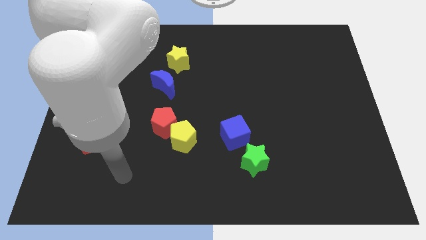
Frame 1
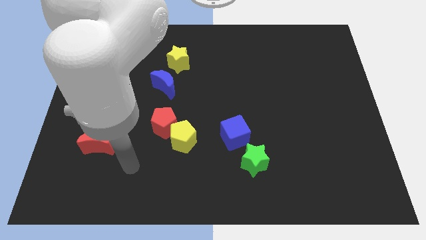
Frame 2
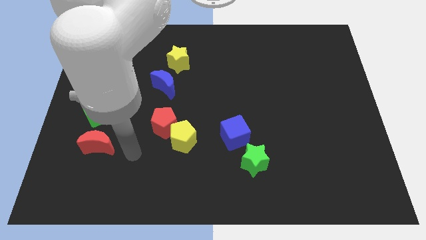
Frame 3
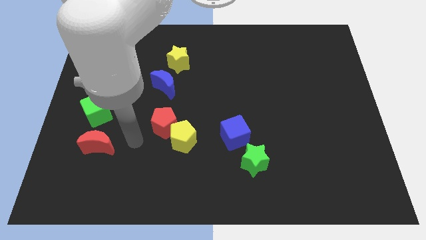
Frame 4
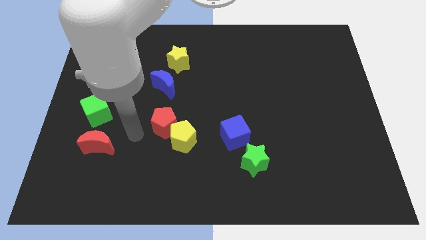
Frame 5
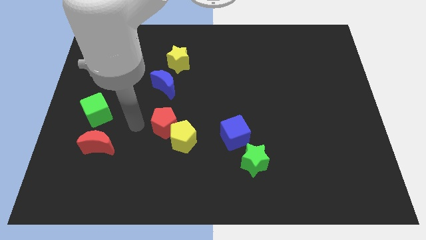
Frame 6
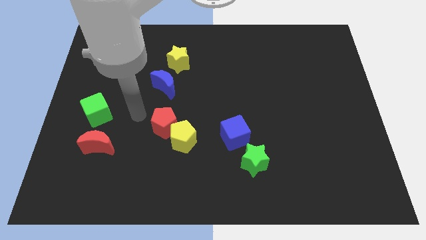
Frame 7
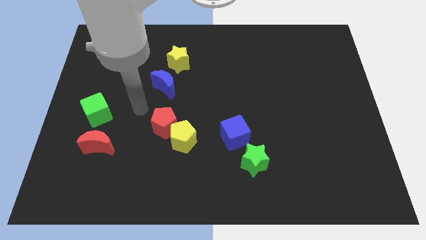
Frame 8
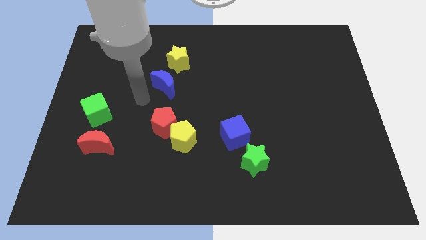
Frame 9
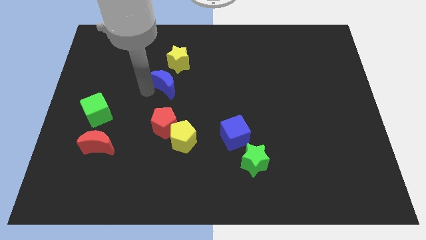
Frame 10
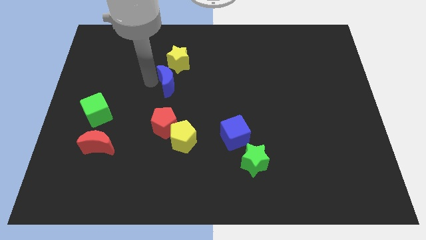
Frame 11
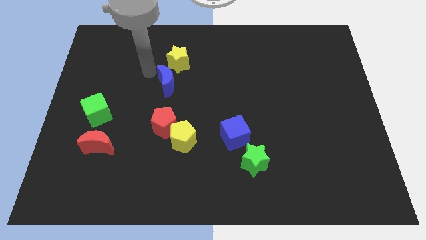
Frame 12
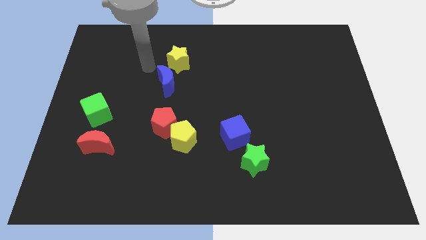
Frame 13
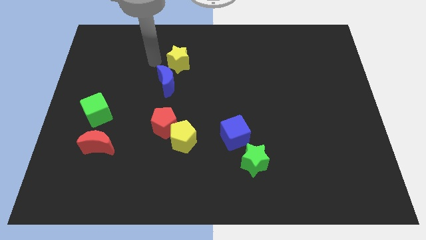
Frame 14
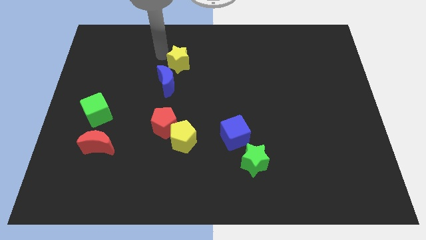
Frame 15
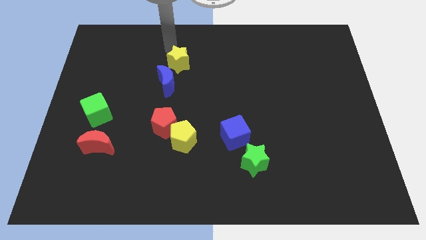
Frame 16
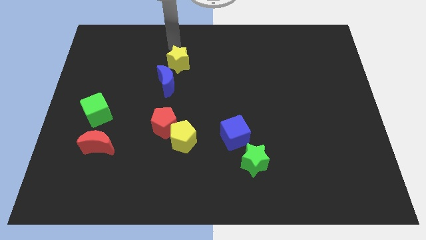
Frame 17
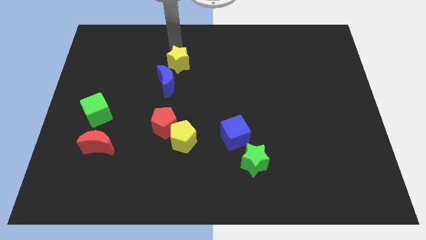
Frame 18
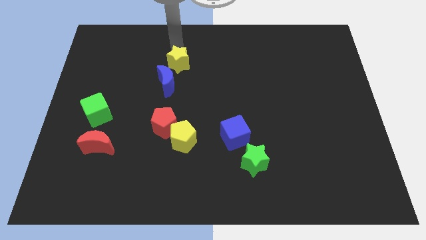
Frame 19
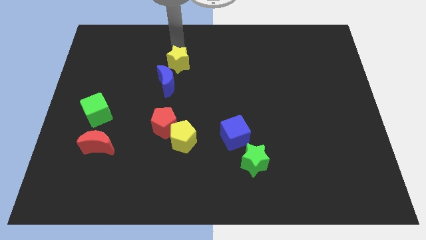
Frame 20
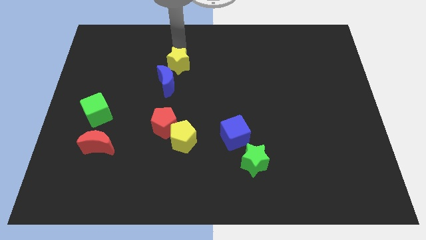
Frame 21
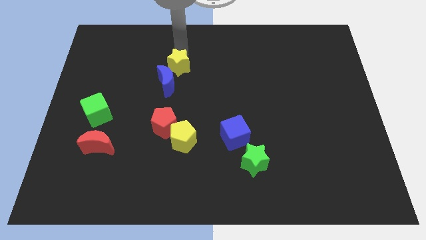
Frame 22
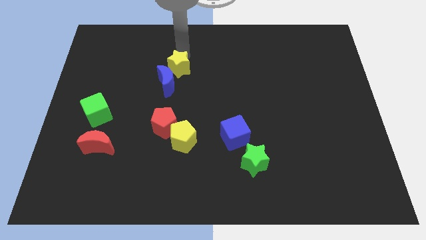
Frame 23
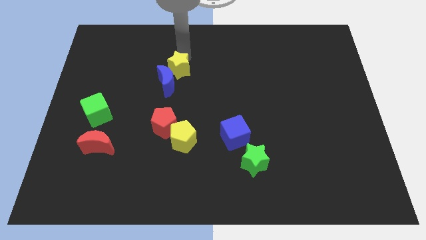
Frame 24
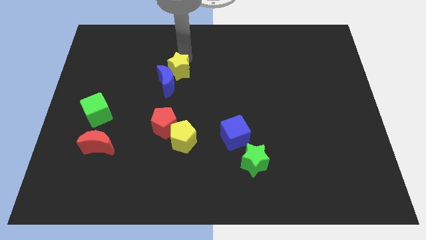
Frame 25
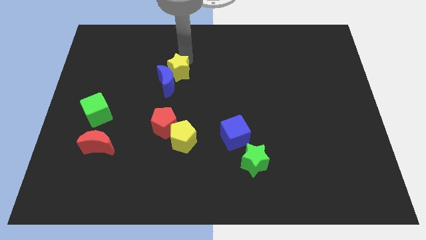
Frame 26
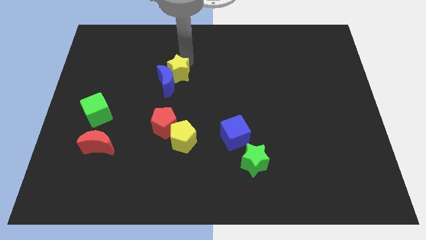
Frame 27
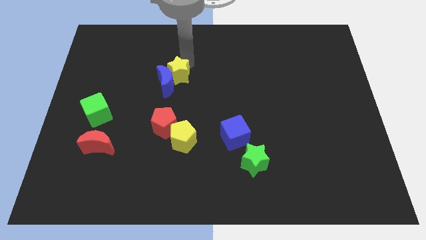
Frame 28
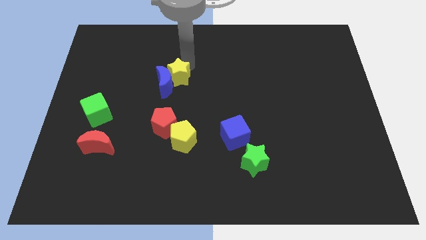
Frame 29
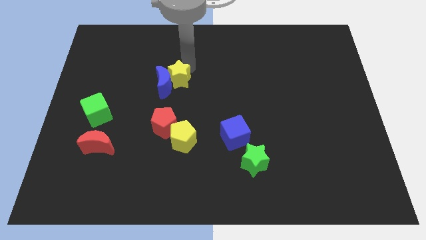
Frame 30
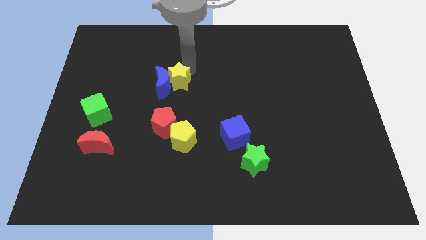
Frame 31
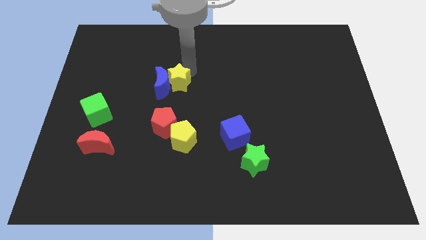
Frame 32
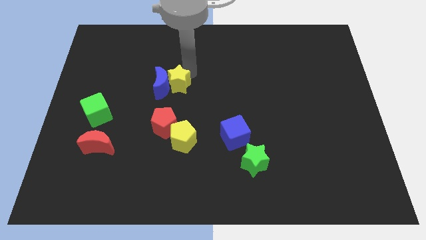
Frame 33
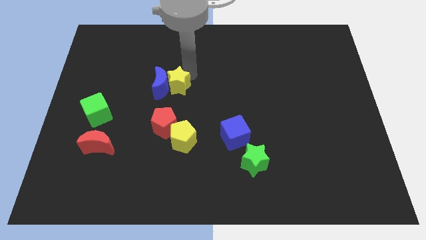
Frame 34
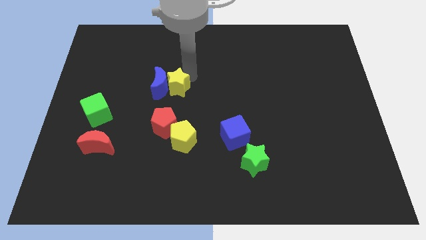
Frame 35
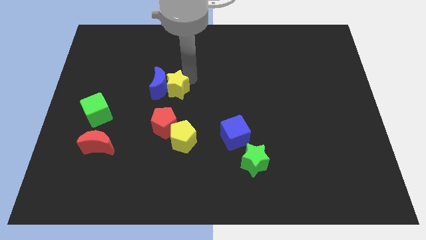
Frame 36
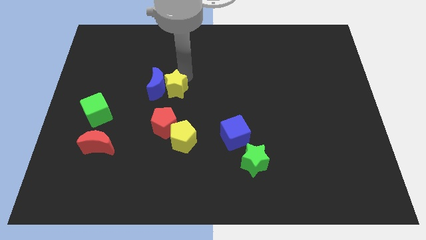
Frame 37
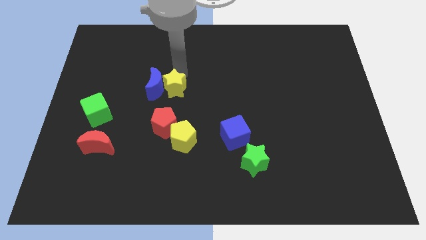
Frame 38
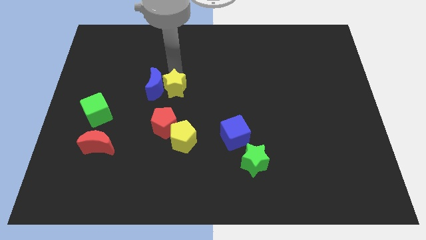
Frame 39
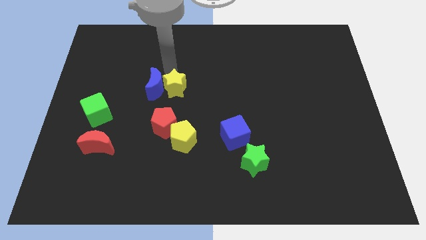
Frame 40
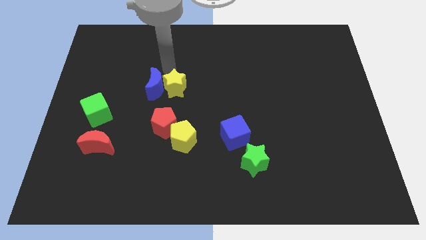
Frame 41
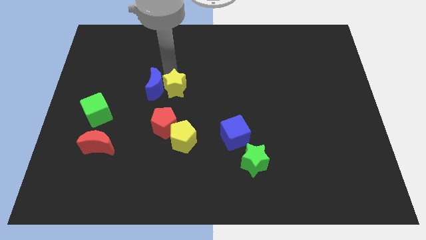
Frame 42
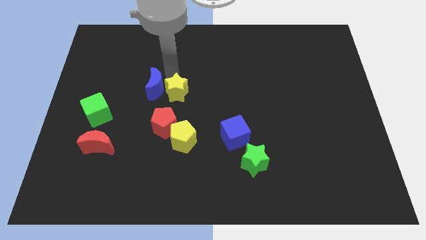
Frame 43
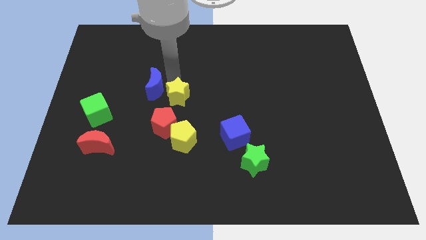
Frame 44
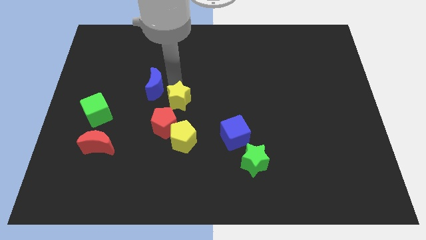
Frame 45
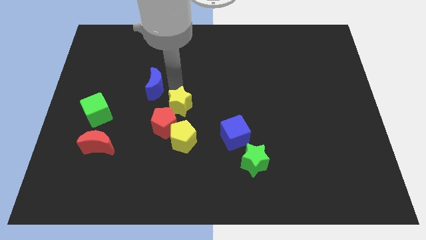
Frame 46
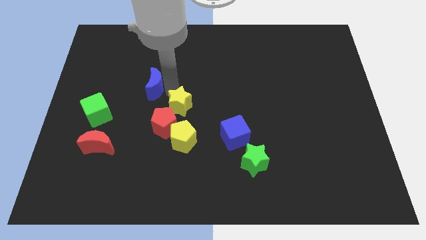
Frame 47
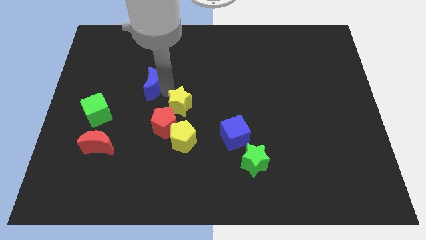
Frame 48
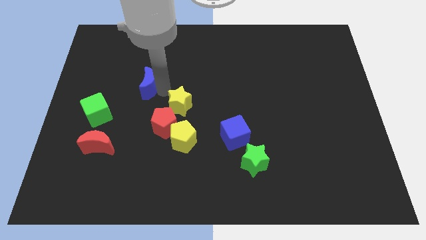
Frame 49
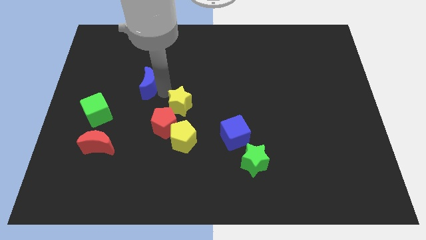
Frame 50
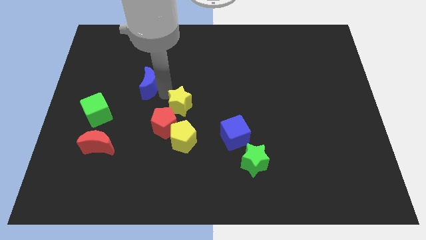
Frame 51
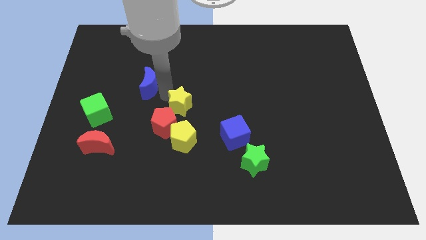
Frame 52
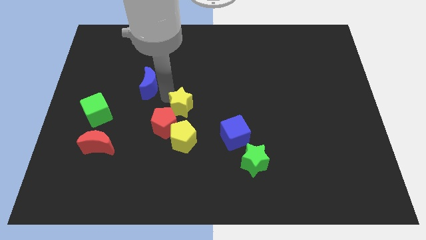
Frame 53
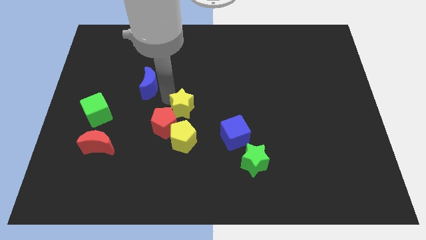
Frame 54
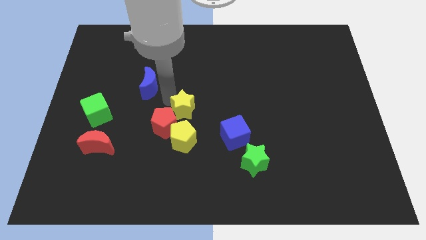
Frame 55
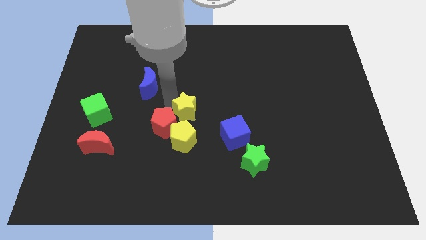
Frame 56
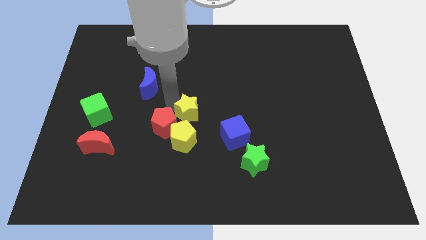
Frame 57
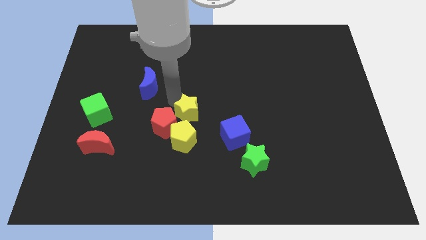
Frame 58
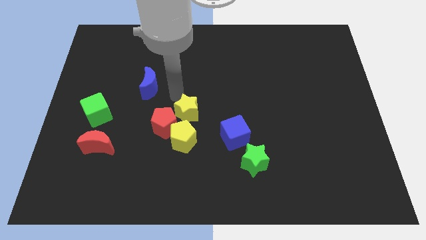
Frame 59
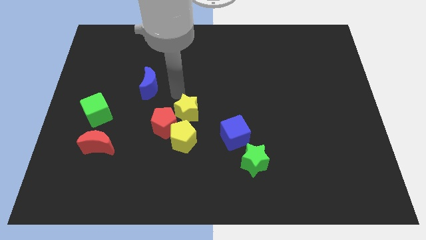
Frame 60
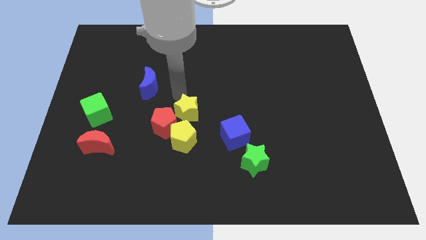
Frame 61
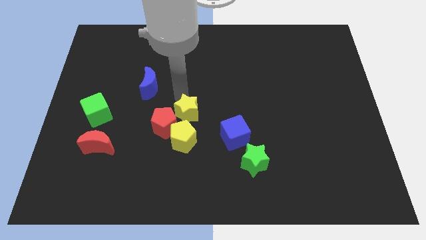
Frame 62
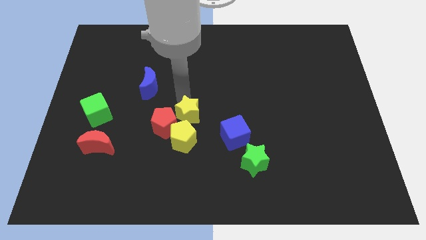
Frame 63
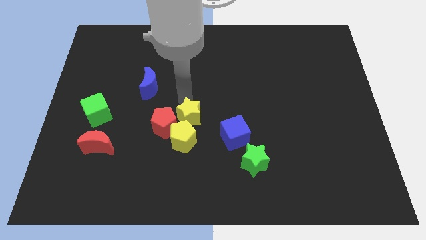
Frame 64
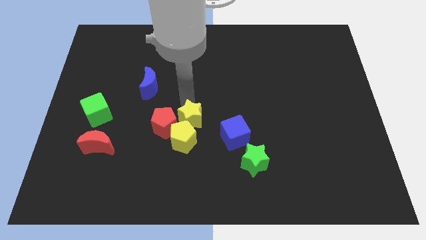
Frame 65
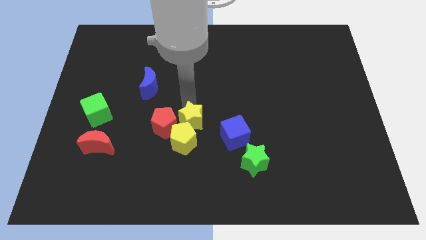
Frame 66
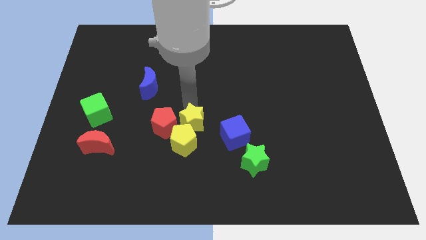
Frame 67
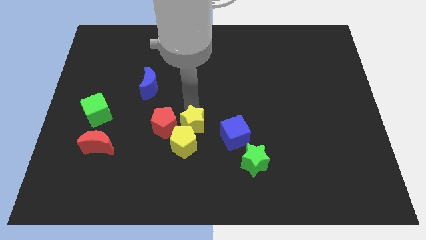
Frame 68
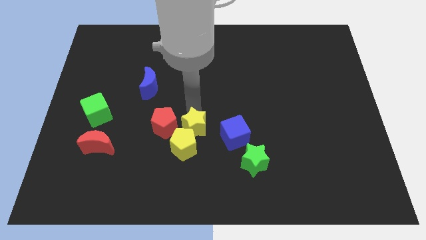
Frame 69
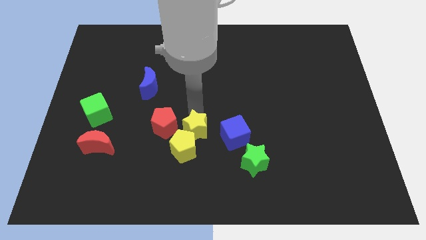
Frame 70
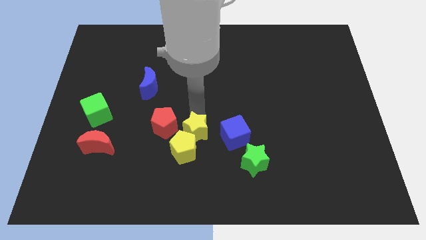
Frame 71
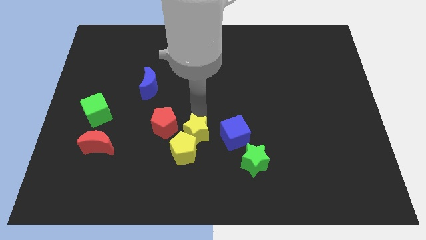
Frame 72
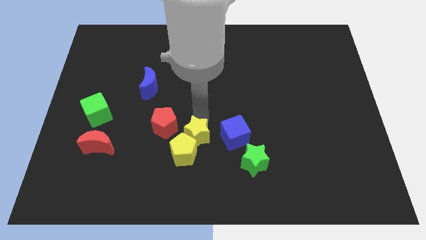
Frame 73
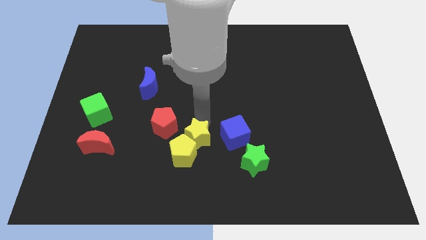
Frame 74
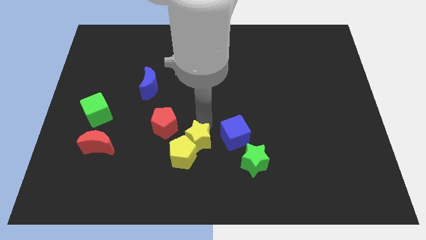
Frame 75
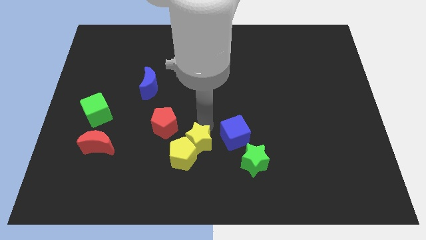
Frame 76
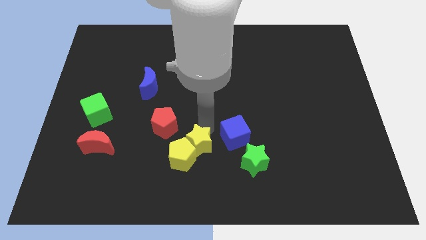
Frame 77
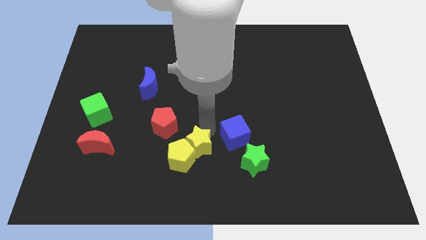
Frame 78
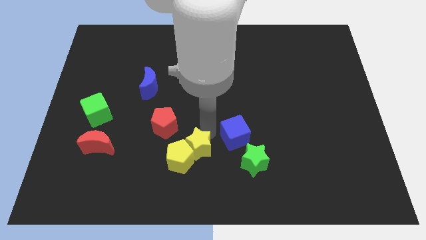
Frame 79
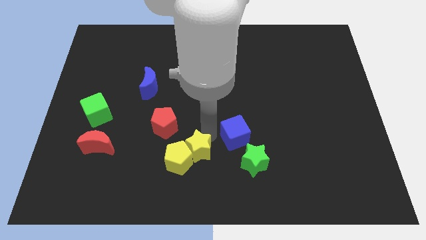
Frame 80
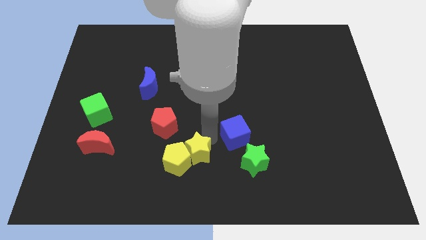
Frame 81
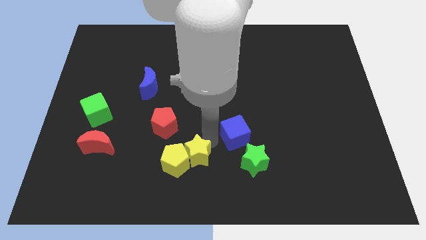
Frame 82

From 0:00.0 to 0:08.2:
slide the yellow star to the bottom

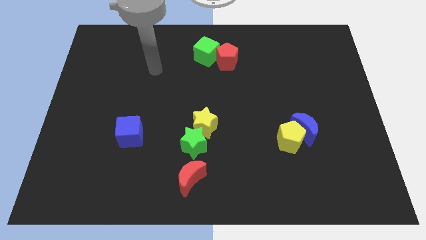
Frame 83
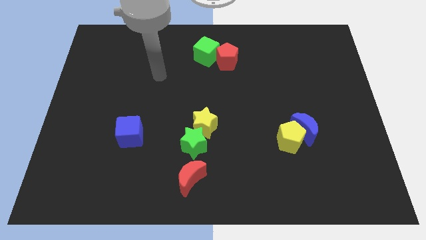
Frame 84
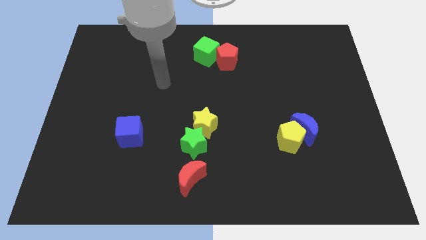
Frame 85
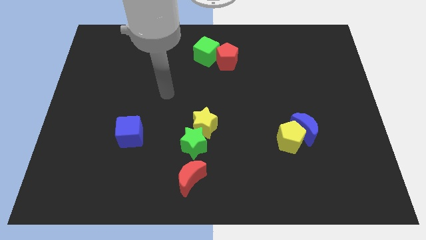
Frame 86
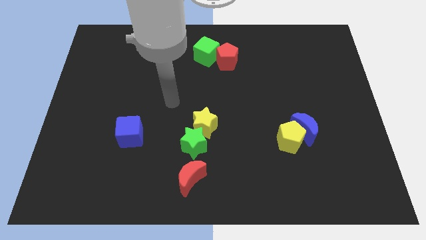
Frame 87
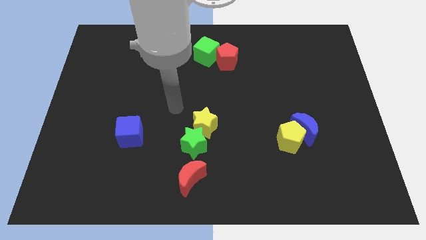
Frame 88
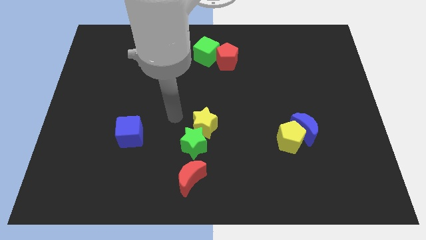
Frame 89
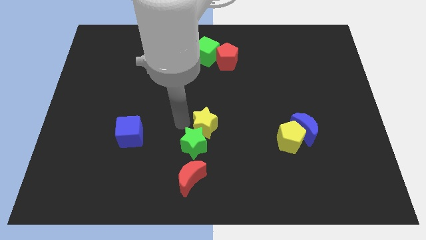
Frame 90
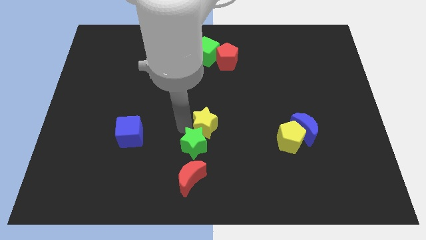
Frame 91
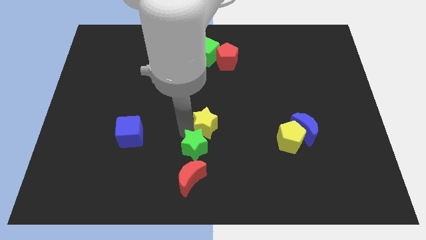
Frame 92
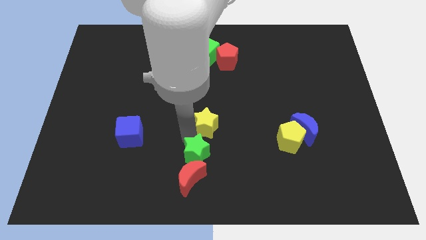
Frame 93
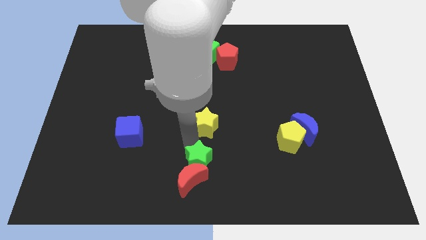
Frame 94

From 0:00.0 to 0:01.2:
move the green star to the bottom side
